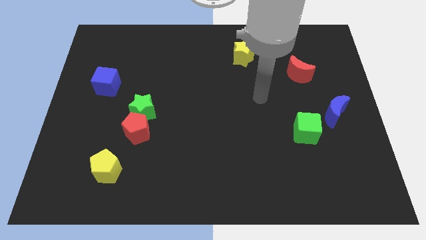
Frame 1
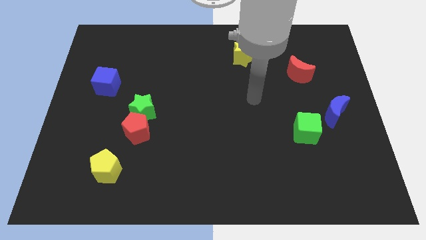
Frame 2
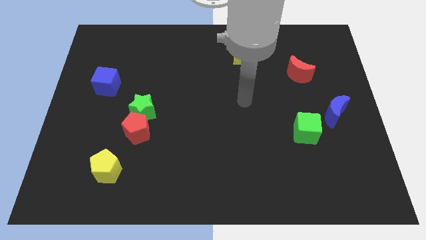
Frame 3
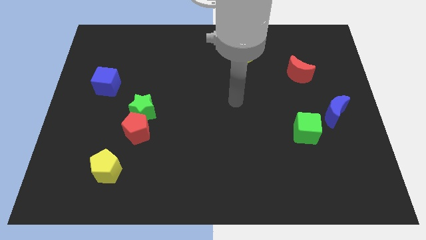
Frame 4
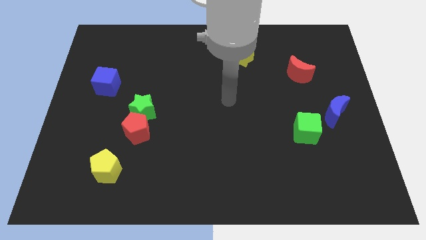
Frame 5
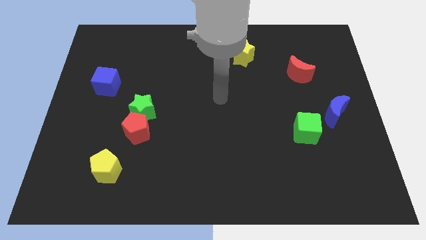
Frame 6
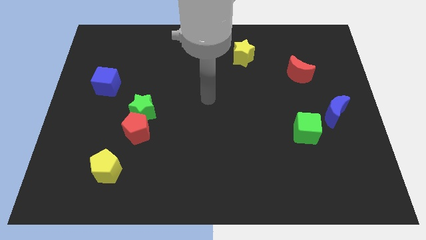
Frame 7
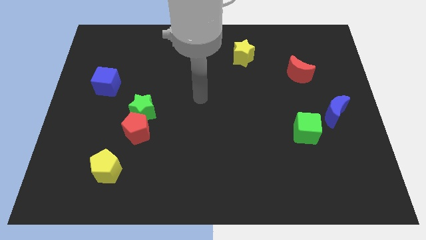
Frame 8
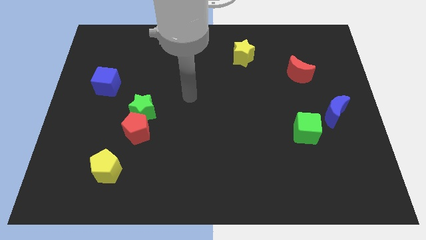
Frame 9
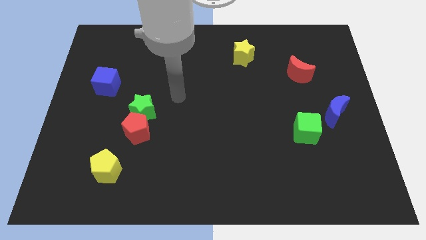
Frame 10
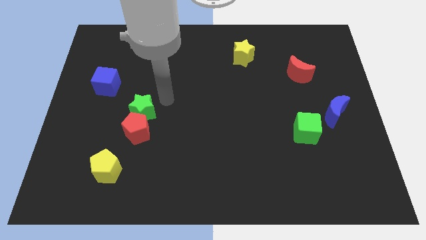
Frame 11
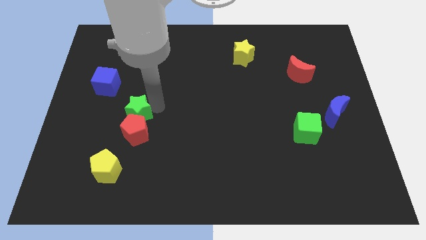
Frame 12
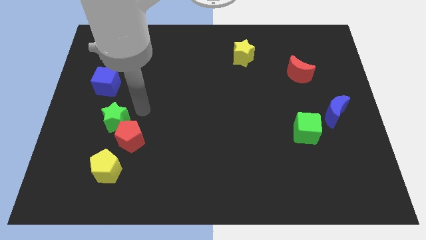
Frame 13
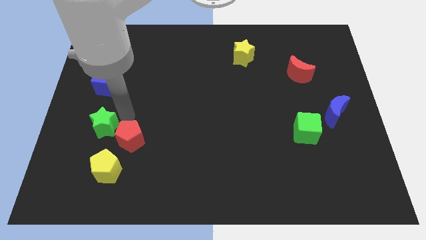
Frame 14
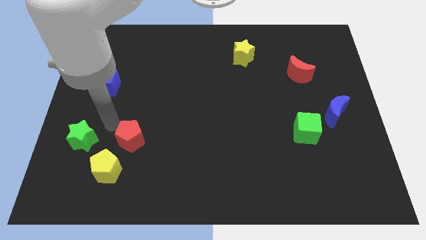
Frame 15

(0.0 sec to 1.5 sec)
separate the red pentagon from the green star

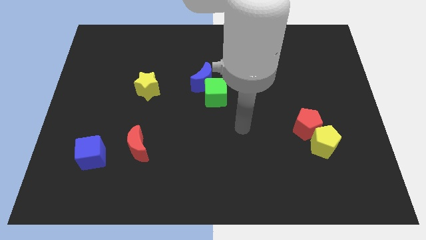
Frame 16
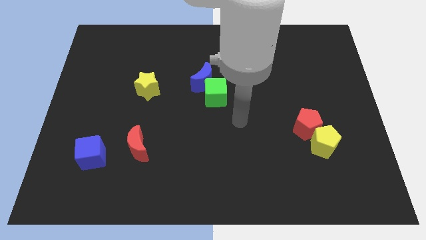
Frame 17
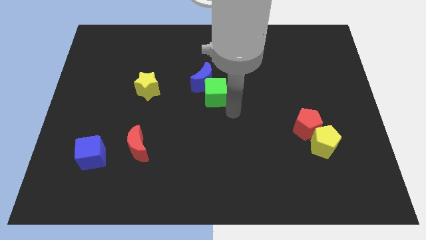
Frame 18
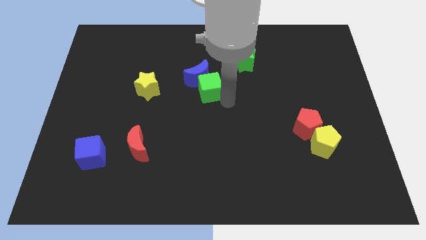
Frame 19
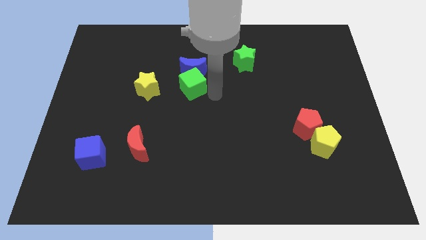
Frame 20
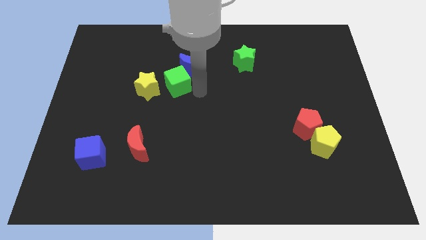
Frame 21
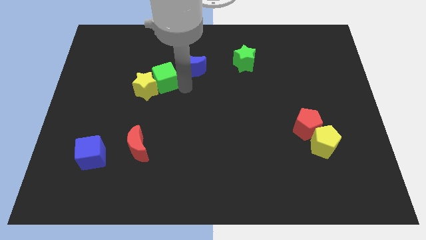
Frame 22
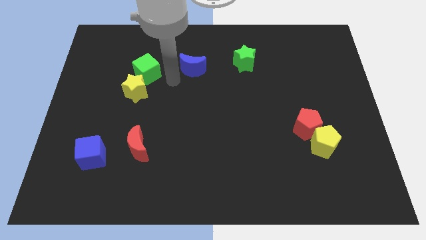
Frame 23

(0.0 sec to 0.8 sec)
pull the blue moon apart from the green cube

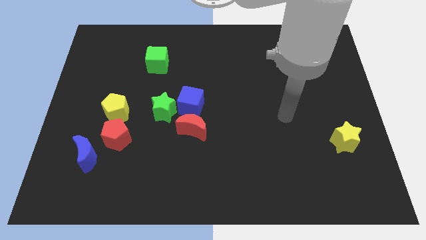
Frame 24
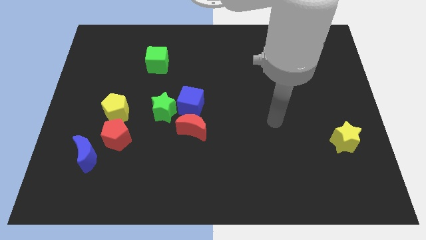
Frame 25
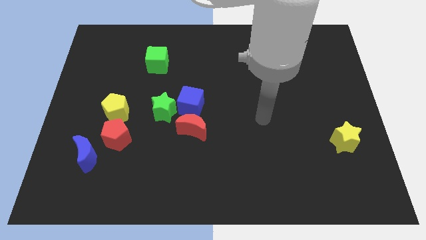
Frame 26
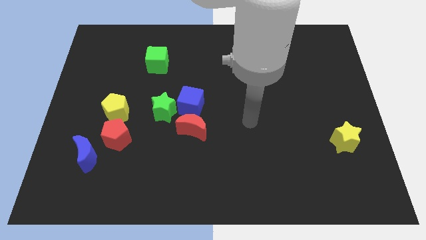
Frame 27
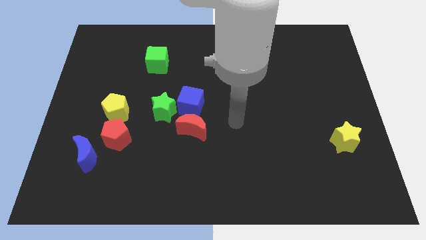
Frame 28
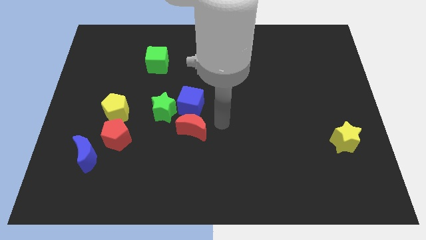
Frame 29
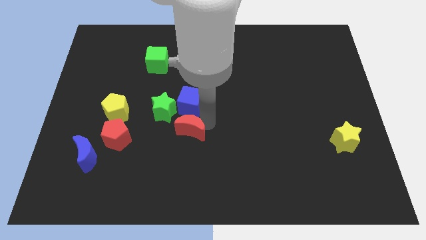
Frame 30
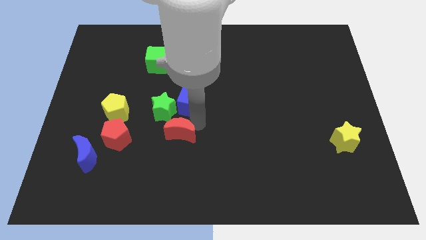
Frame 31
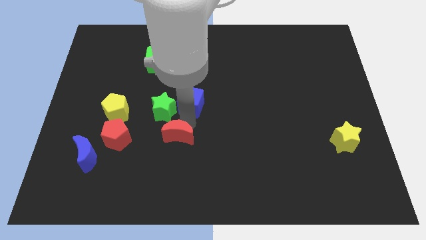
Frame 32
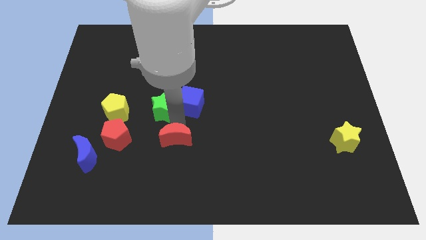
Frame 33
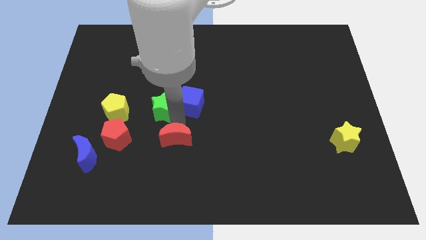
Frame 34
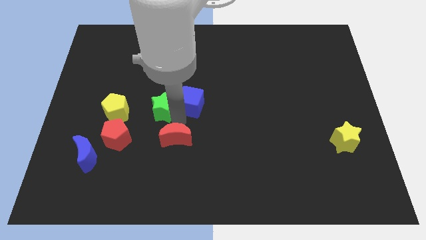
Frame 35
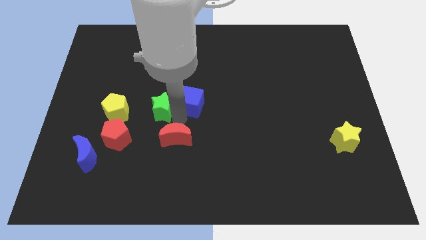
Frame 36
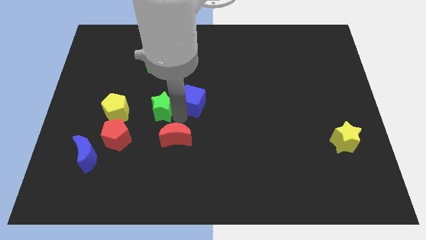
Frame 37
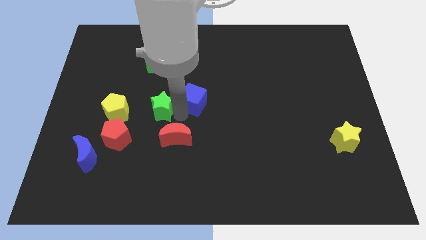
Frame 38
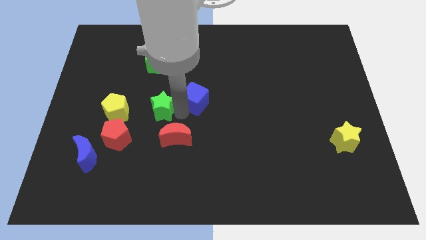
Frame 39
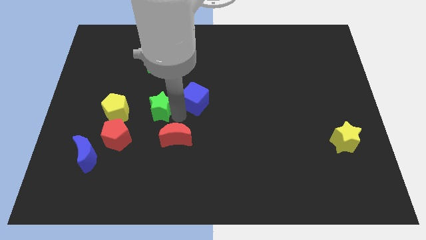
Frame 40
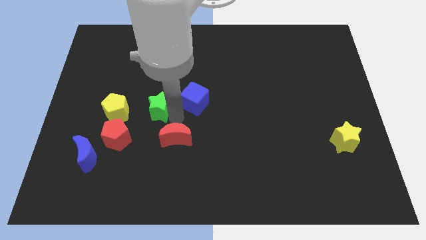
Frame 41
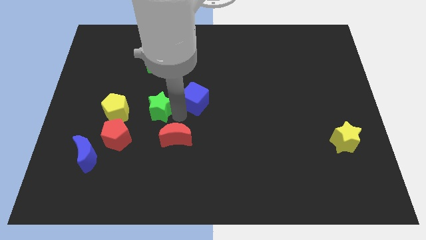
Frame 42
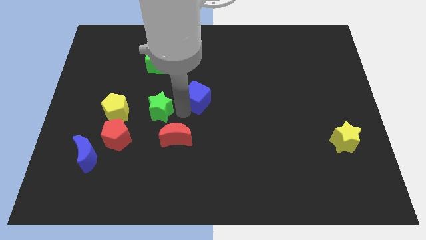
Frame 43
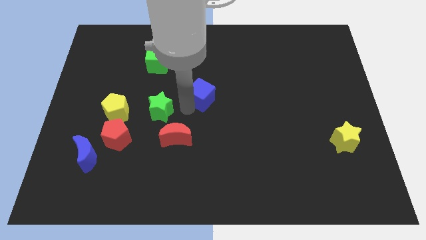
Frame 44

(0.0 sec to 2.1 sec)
pull the blue cube apart from the green star and red moon

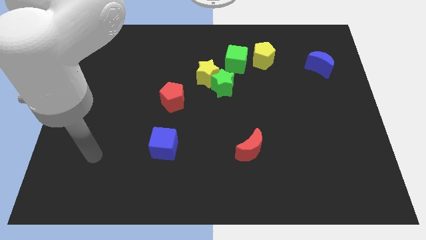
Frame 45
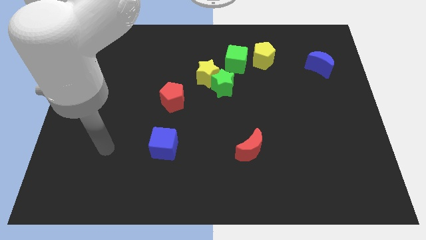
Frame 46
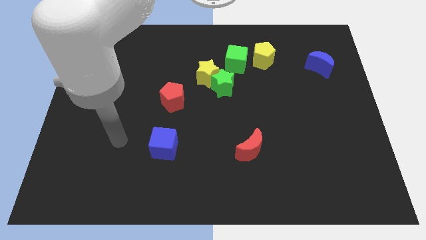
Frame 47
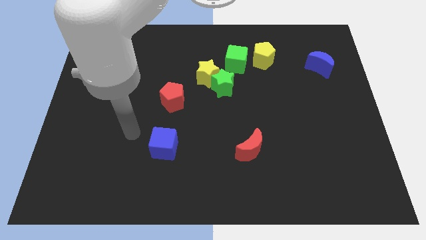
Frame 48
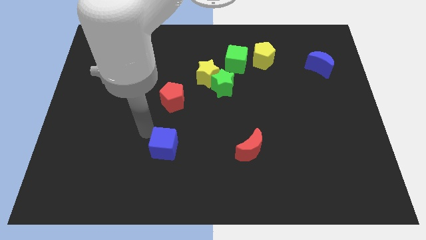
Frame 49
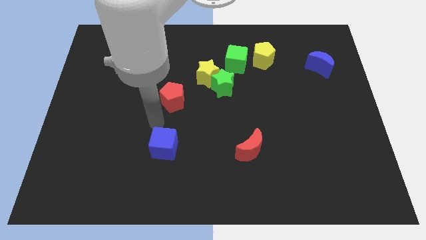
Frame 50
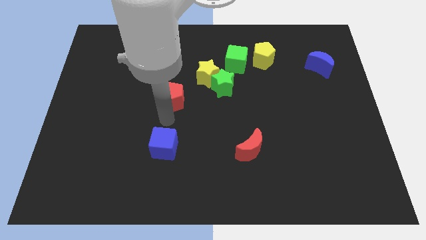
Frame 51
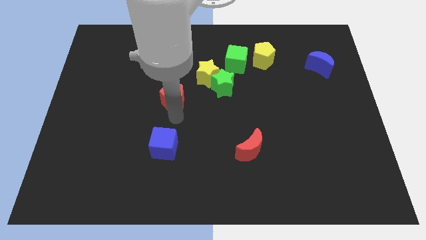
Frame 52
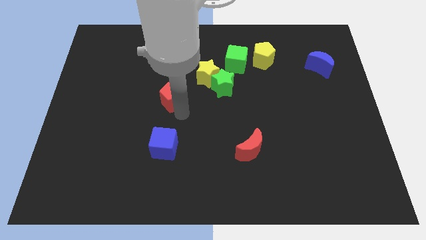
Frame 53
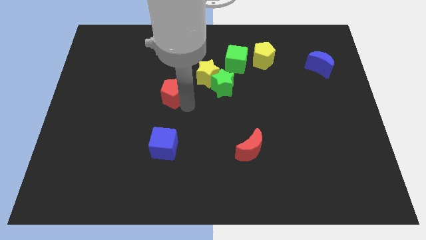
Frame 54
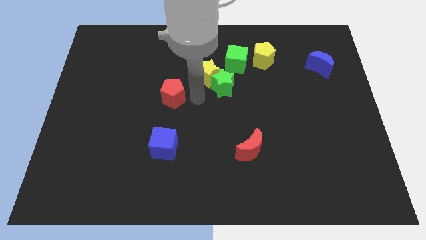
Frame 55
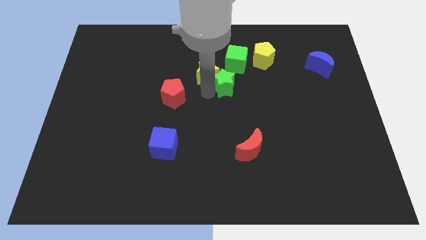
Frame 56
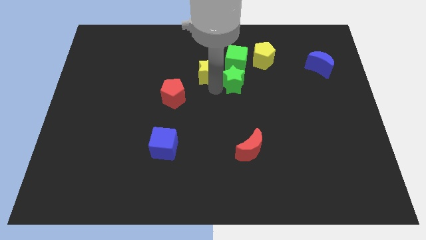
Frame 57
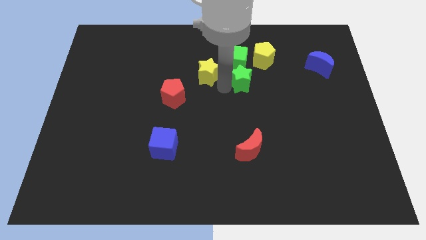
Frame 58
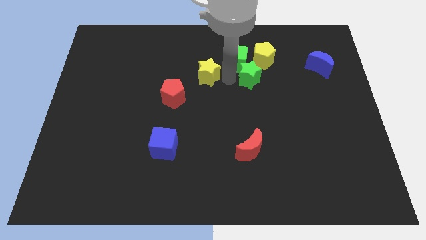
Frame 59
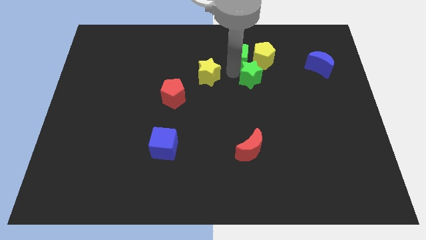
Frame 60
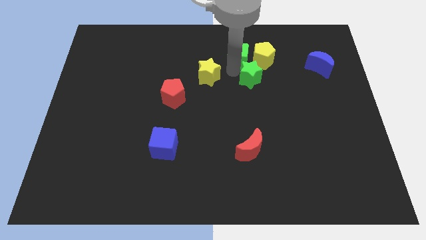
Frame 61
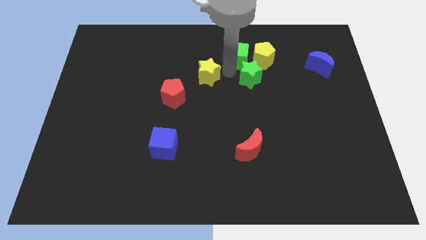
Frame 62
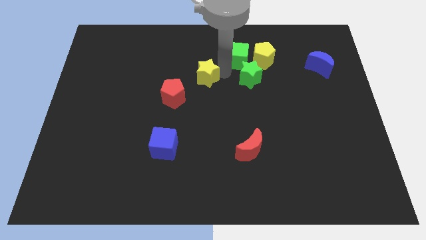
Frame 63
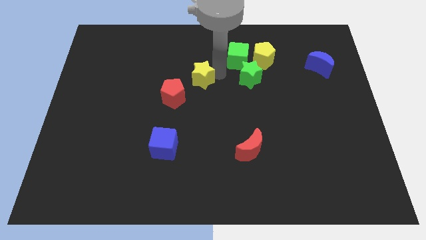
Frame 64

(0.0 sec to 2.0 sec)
pull the yellow star apart from the green star and green cube

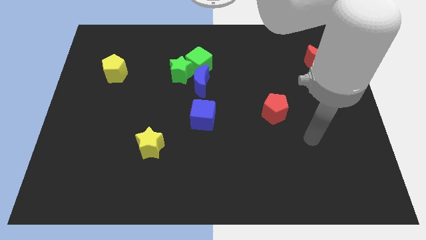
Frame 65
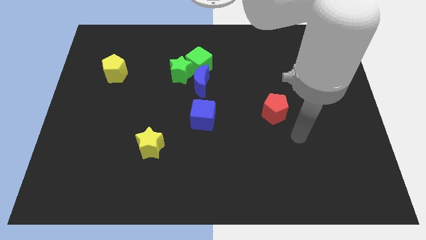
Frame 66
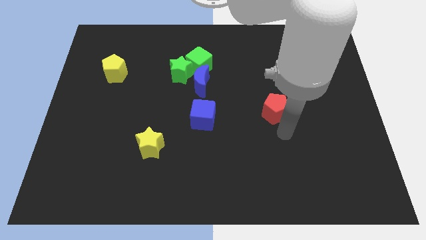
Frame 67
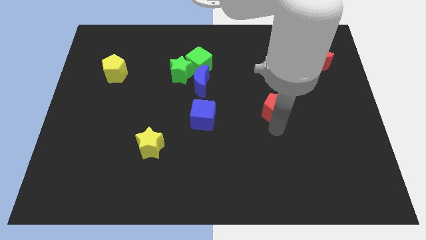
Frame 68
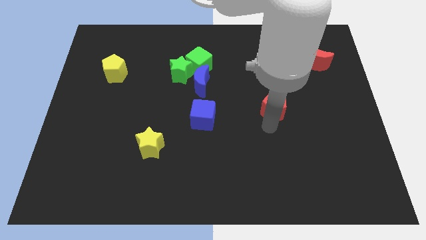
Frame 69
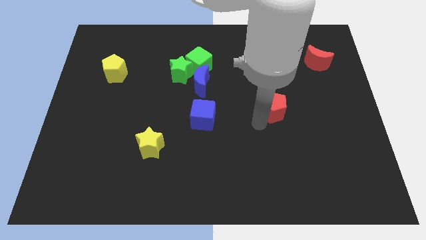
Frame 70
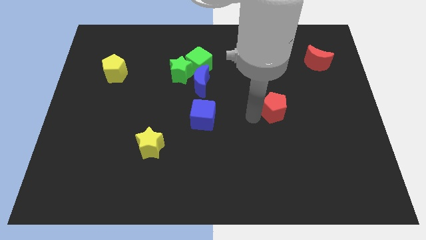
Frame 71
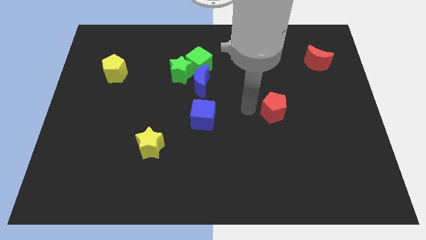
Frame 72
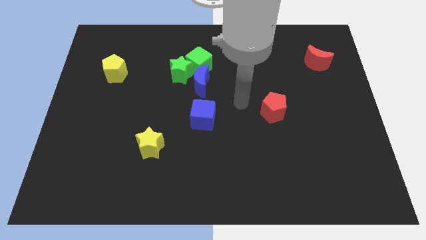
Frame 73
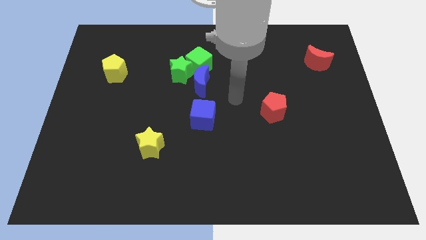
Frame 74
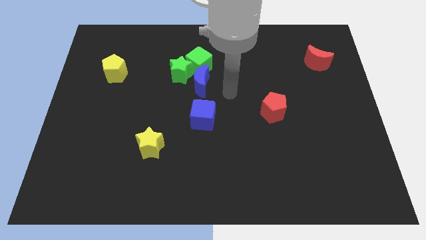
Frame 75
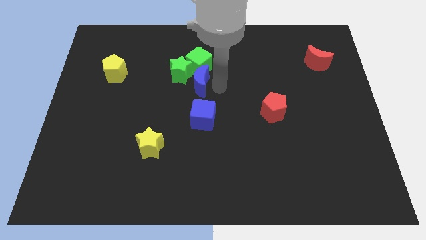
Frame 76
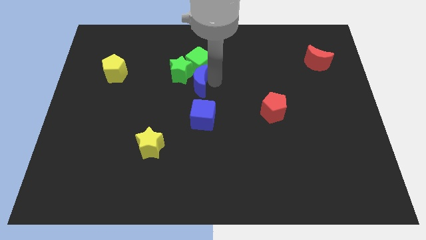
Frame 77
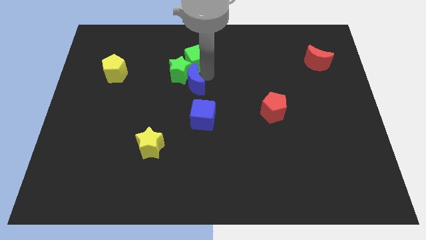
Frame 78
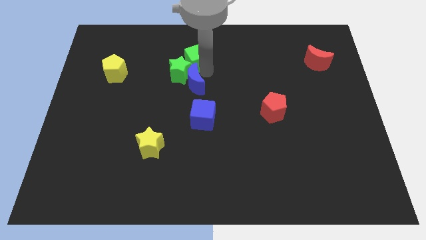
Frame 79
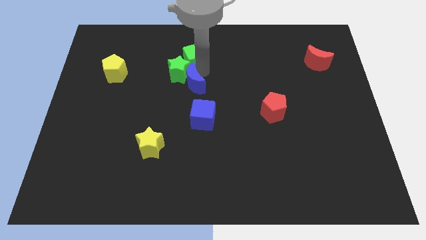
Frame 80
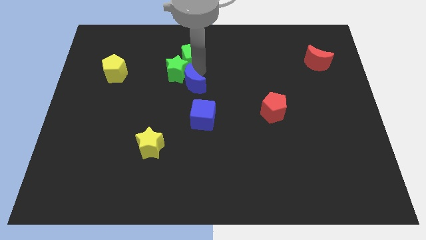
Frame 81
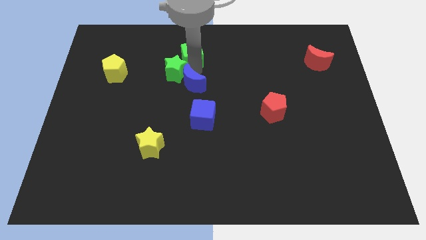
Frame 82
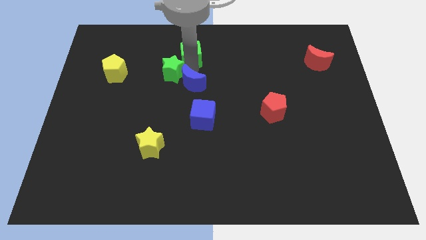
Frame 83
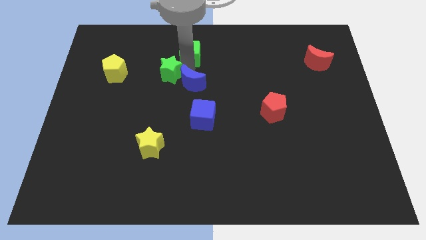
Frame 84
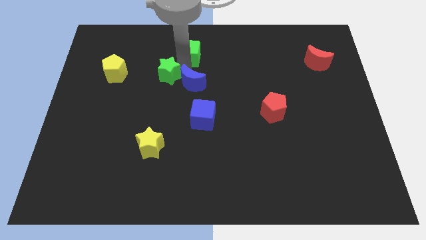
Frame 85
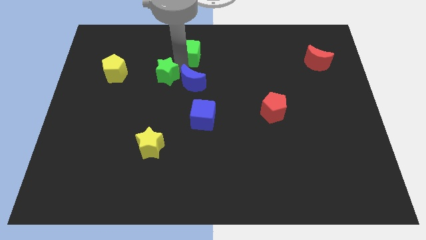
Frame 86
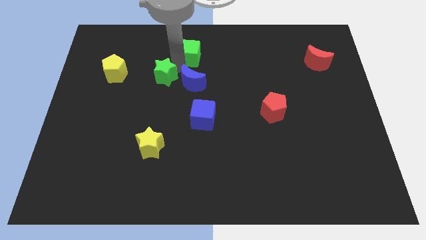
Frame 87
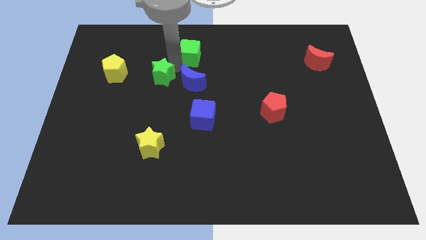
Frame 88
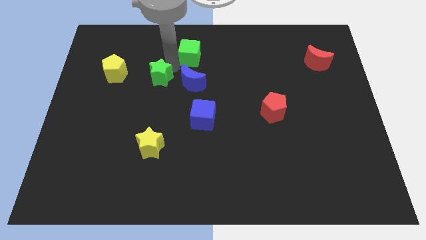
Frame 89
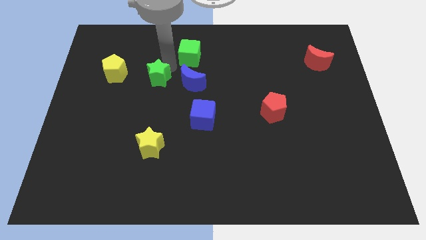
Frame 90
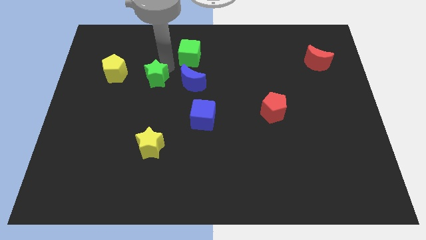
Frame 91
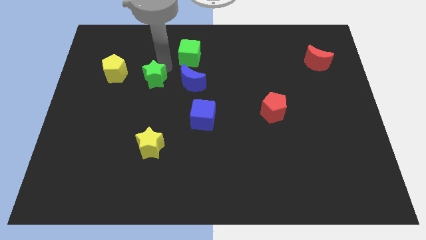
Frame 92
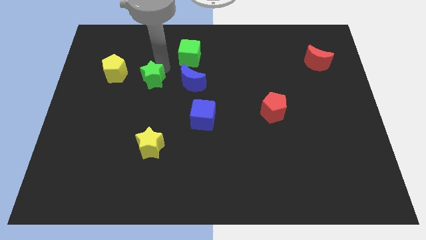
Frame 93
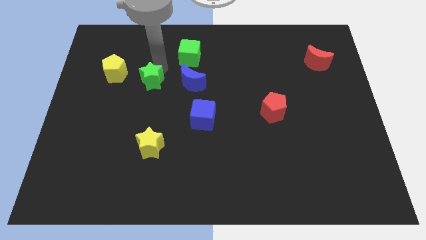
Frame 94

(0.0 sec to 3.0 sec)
move the green star away from the green cube and blue moon
